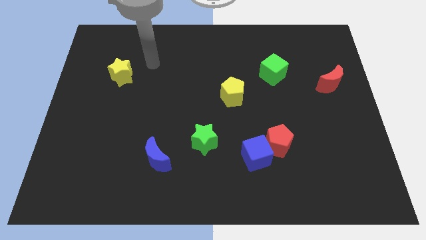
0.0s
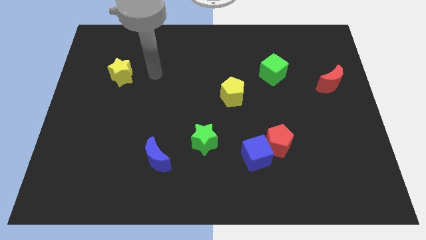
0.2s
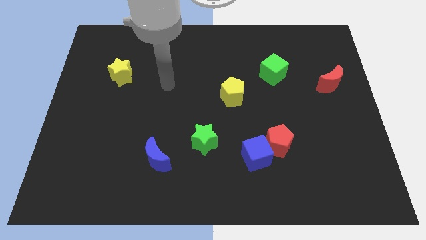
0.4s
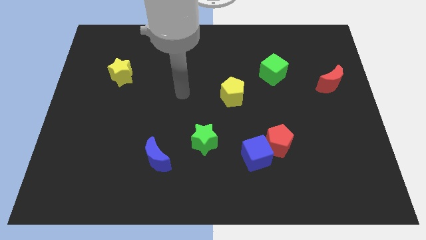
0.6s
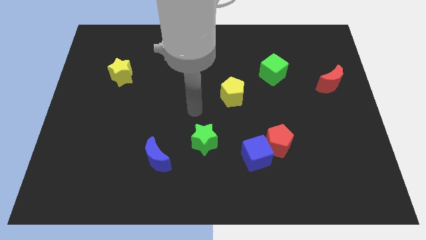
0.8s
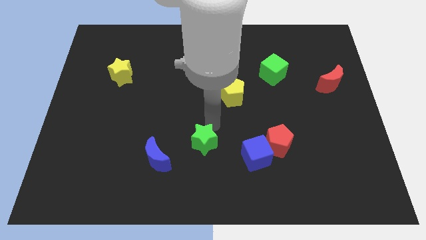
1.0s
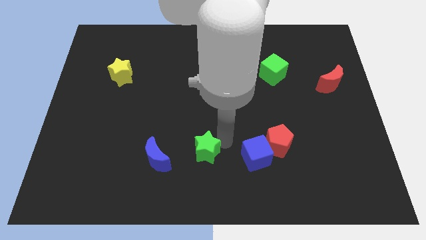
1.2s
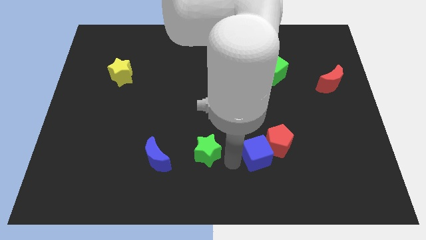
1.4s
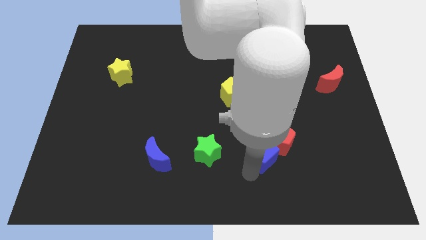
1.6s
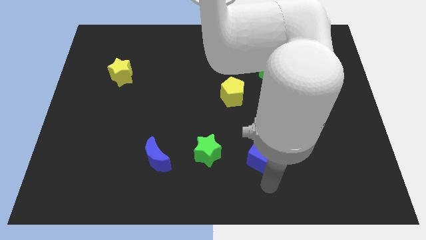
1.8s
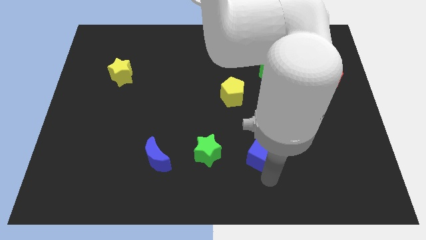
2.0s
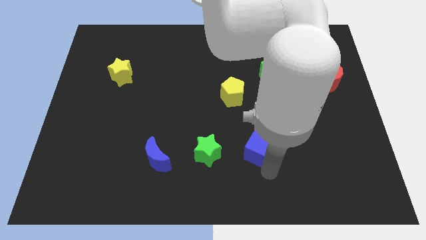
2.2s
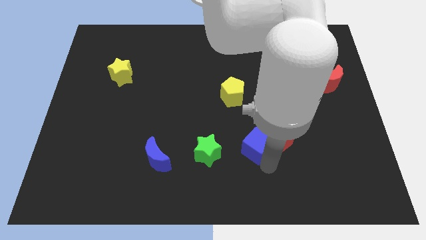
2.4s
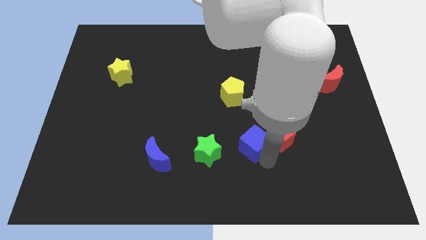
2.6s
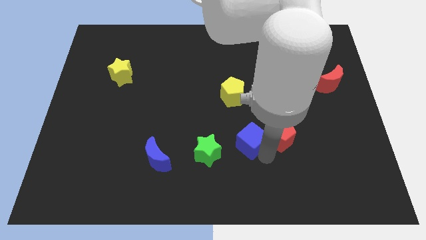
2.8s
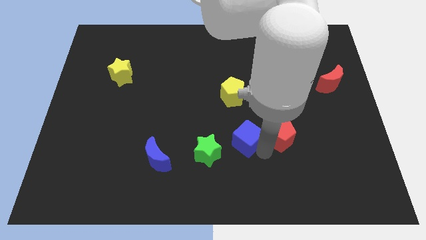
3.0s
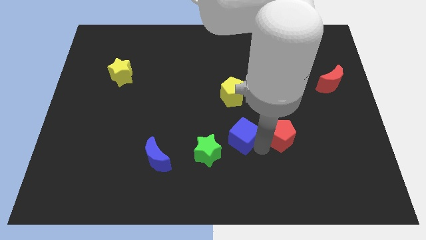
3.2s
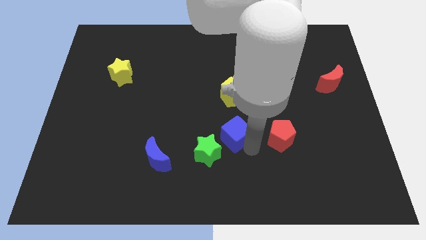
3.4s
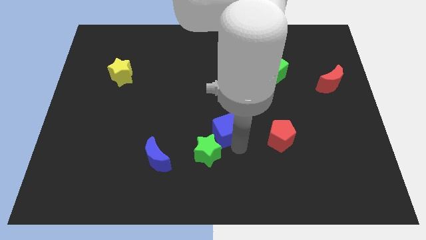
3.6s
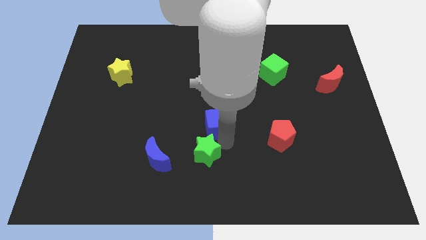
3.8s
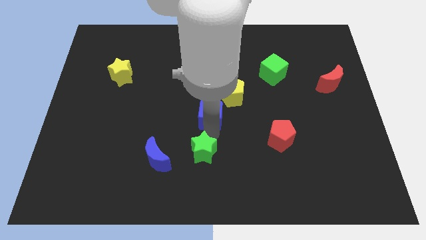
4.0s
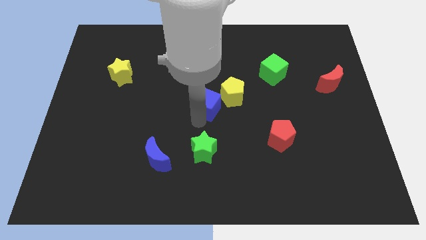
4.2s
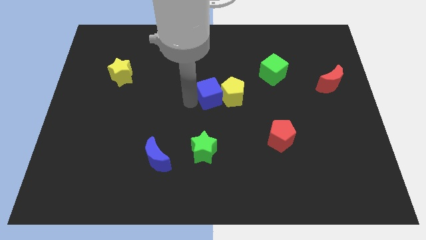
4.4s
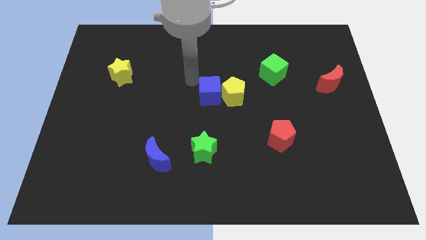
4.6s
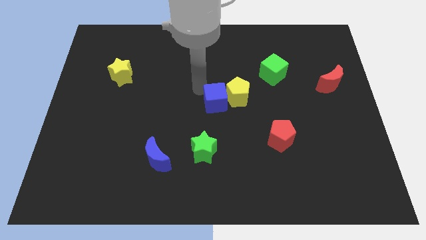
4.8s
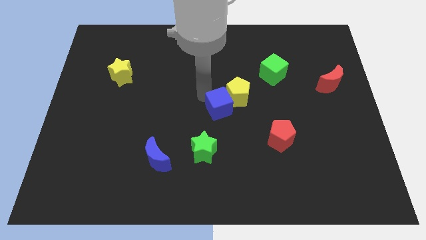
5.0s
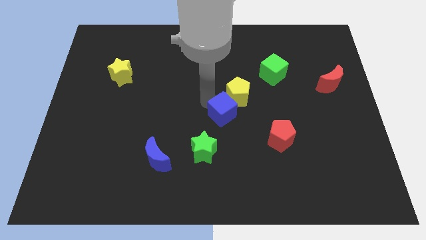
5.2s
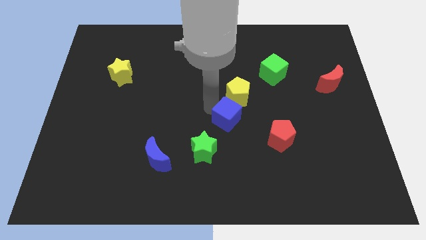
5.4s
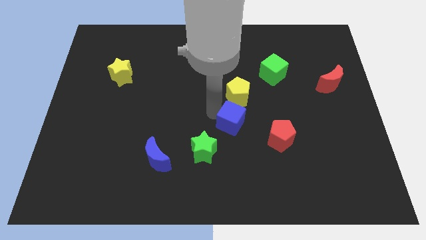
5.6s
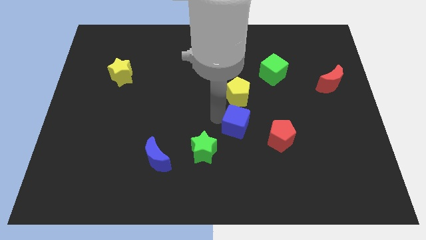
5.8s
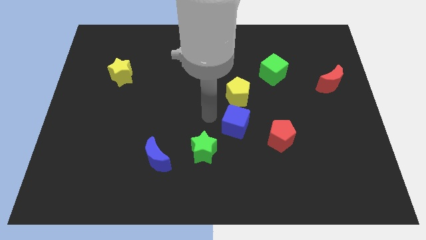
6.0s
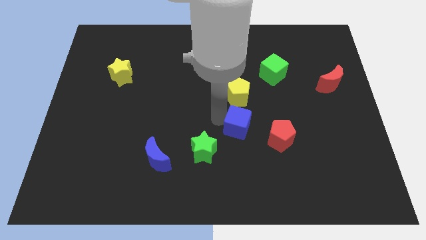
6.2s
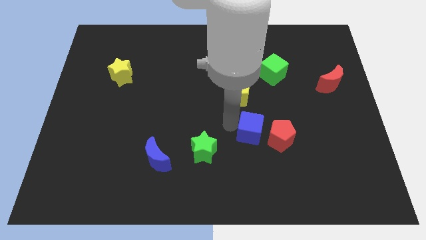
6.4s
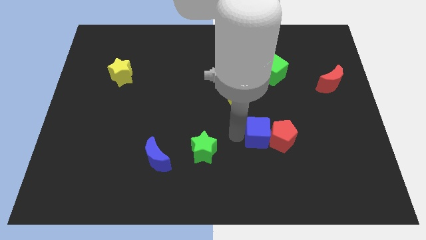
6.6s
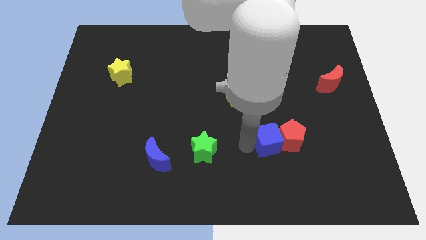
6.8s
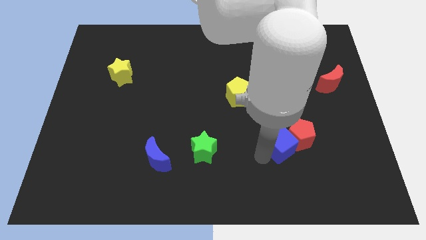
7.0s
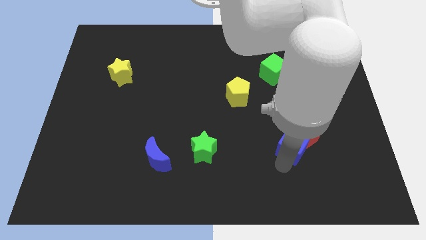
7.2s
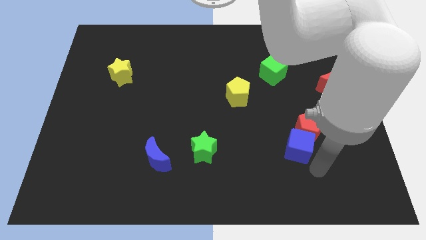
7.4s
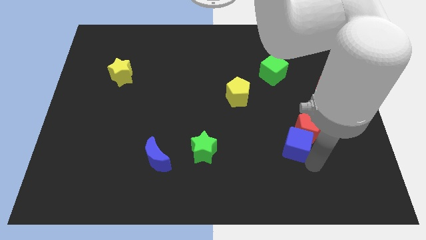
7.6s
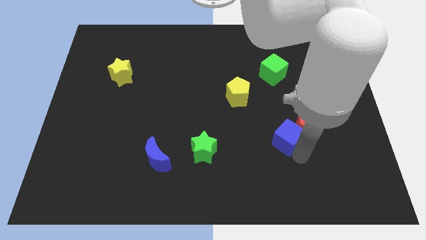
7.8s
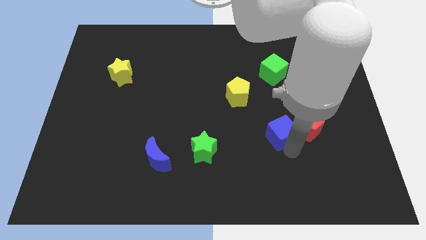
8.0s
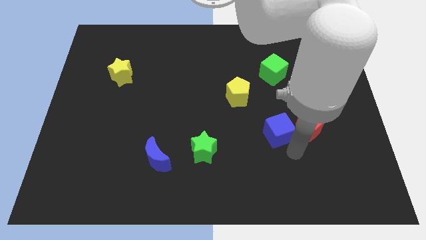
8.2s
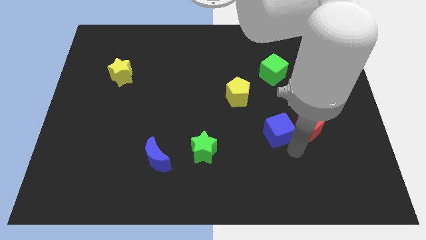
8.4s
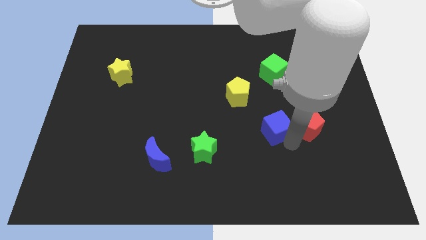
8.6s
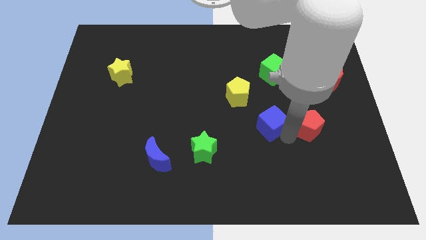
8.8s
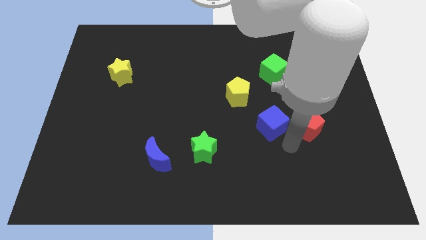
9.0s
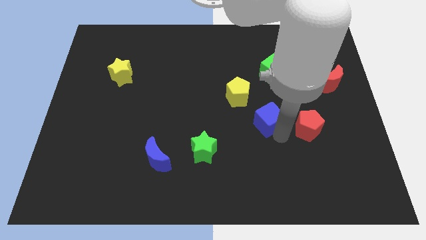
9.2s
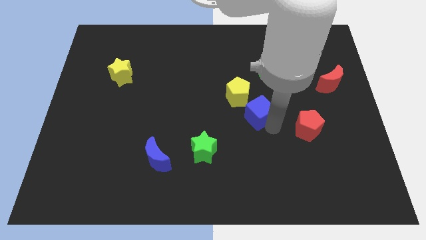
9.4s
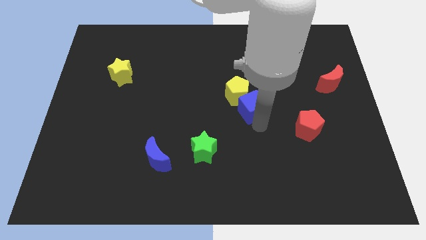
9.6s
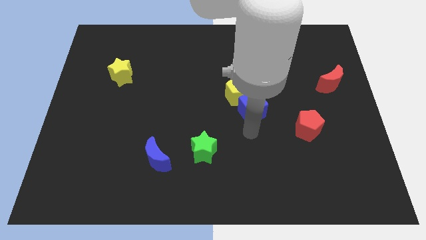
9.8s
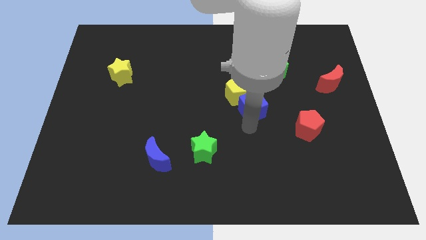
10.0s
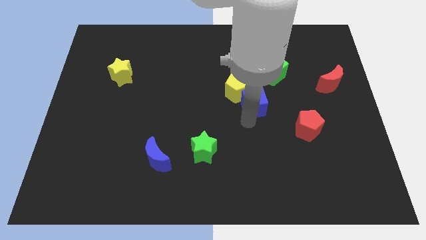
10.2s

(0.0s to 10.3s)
push the blue cube to the bottom left of the green cube

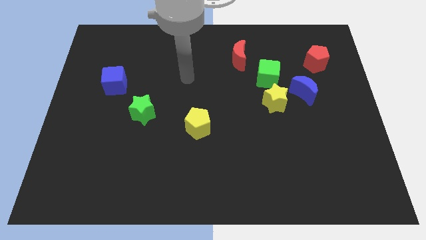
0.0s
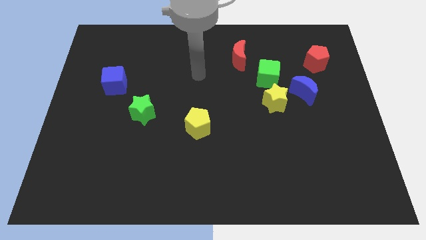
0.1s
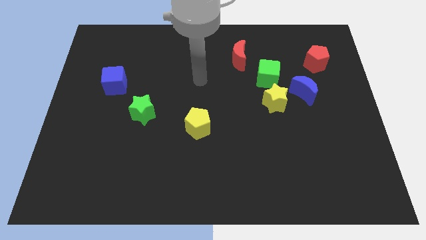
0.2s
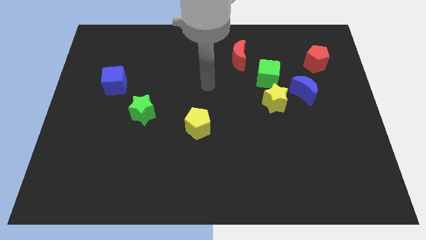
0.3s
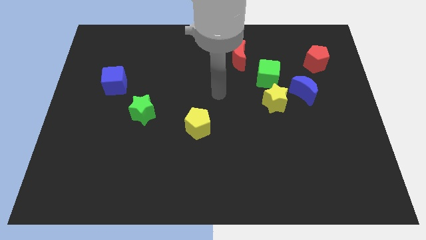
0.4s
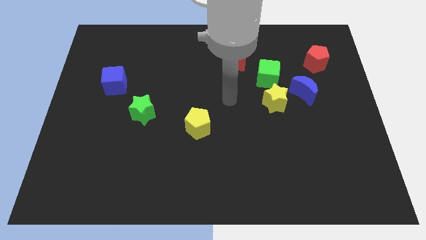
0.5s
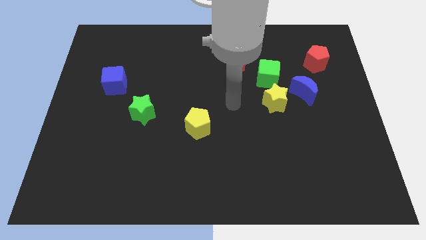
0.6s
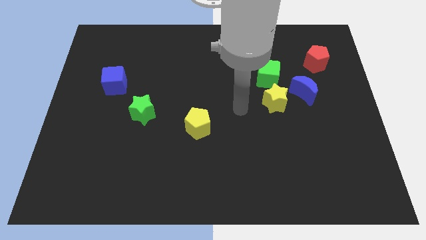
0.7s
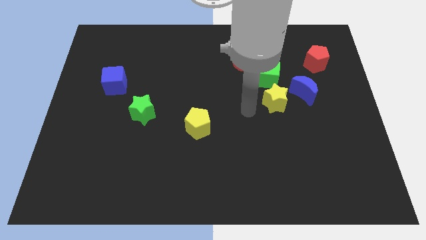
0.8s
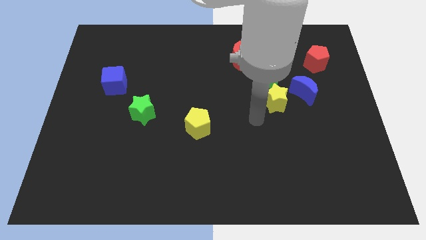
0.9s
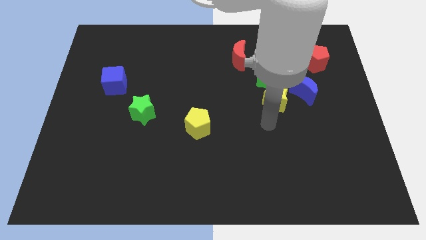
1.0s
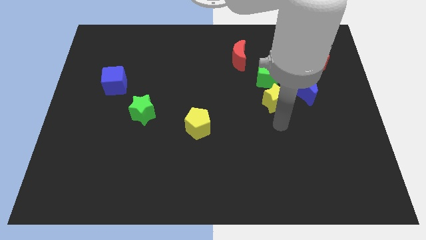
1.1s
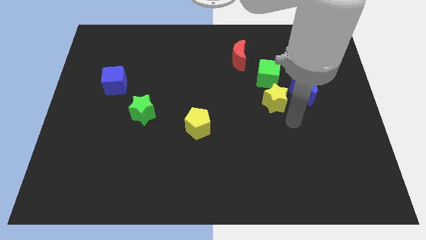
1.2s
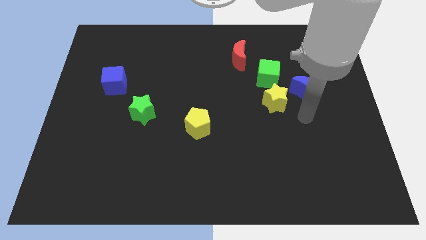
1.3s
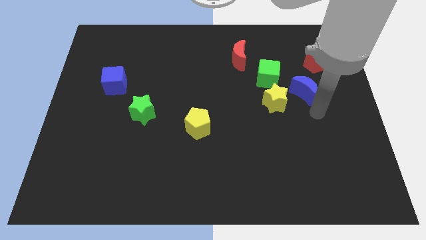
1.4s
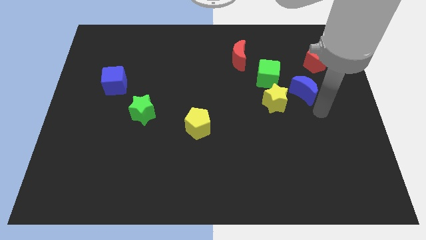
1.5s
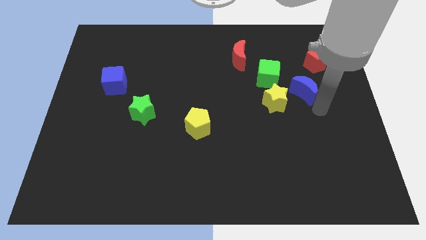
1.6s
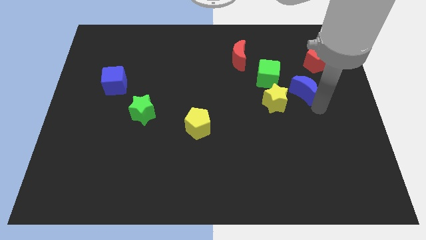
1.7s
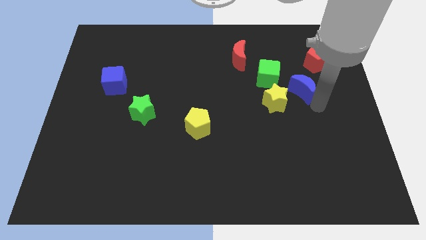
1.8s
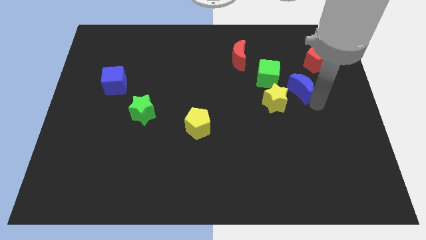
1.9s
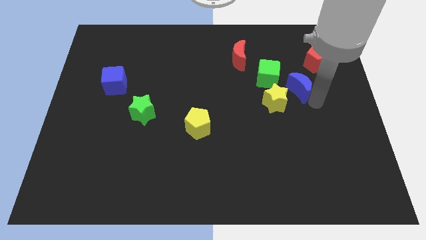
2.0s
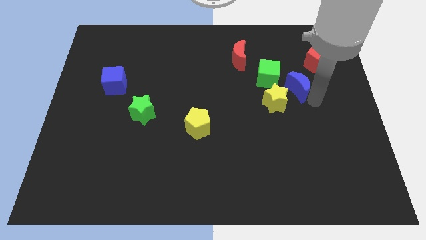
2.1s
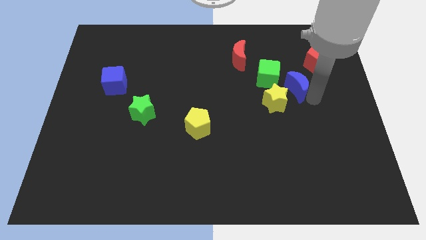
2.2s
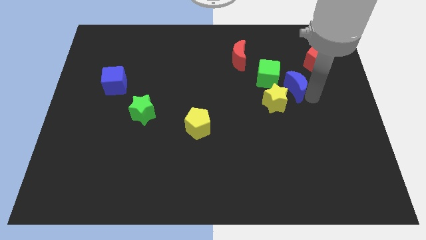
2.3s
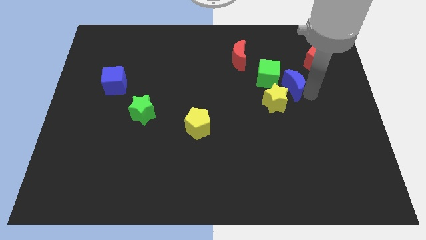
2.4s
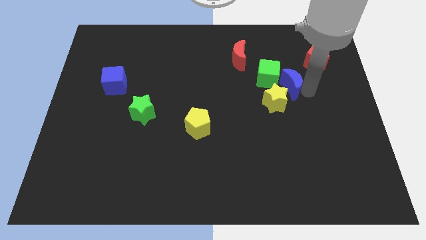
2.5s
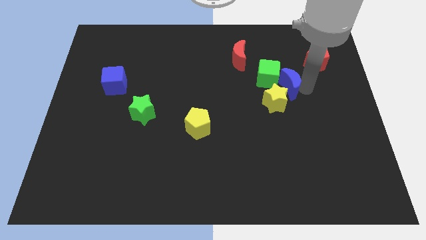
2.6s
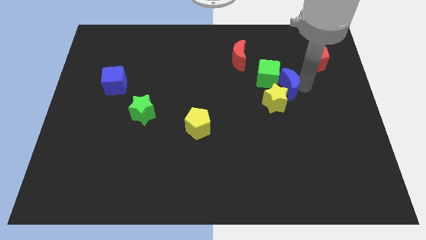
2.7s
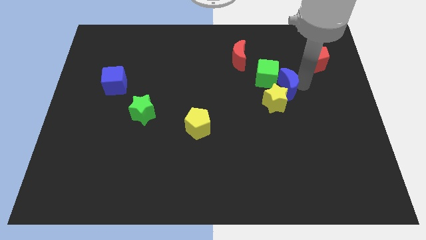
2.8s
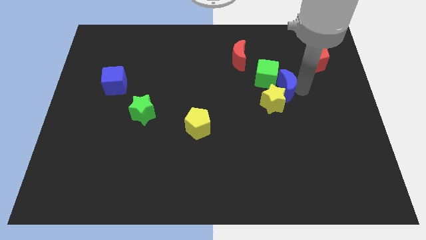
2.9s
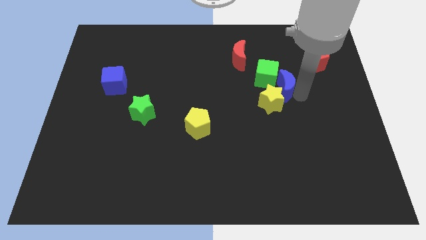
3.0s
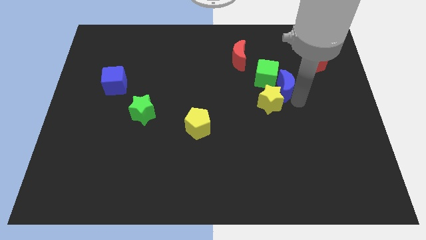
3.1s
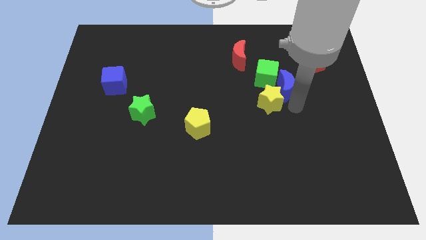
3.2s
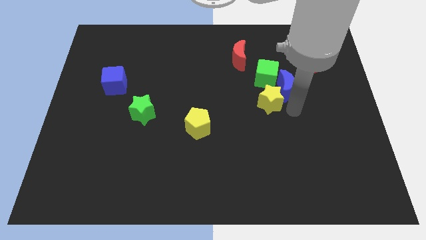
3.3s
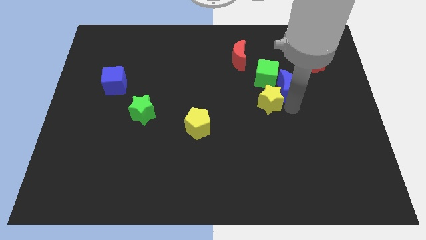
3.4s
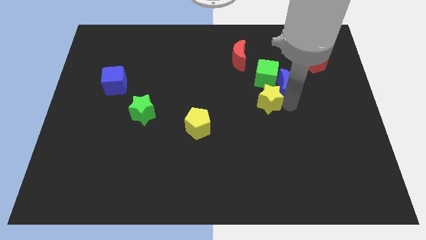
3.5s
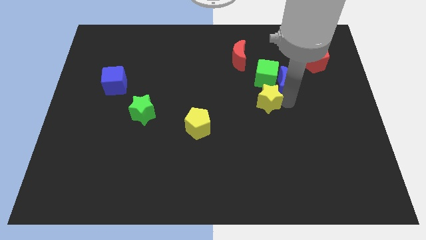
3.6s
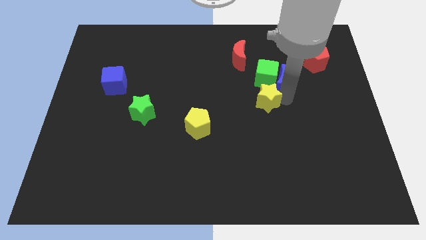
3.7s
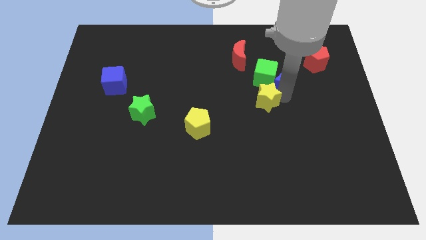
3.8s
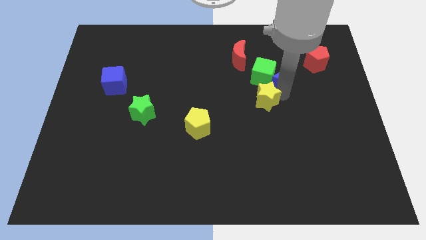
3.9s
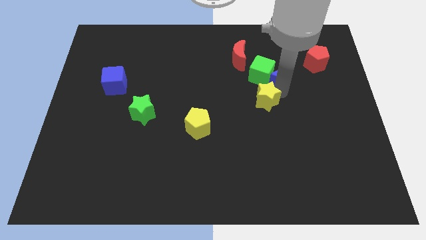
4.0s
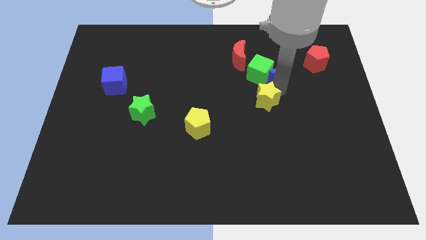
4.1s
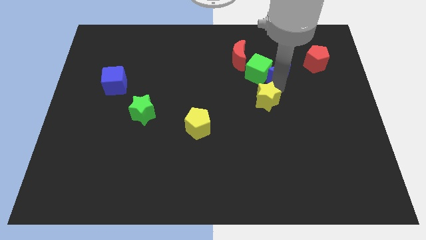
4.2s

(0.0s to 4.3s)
push the blue moon left of the red pentagon
